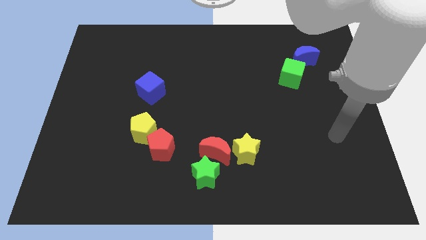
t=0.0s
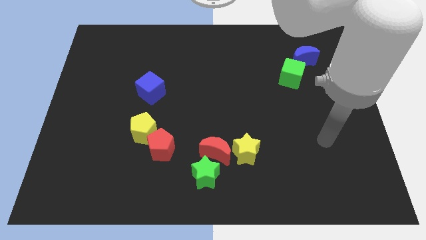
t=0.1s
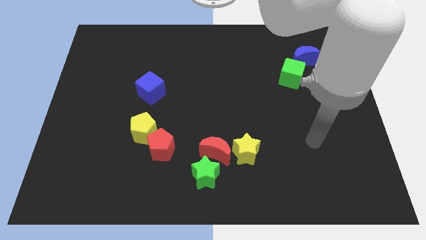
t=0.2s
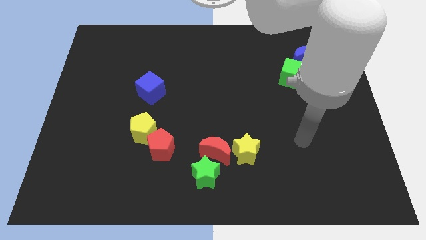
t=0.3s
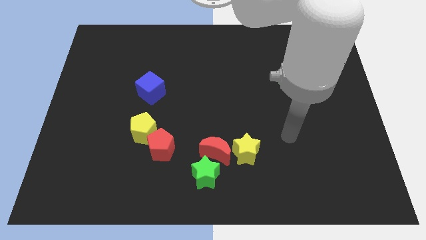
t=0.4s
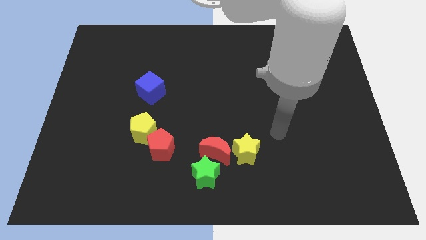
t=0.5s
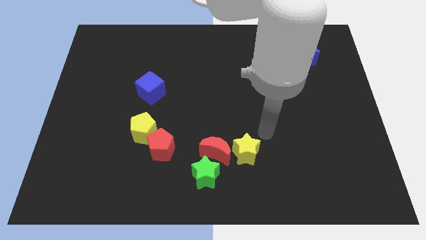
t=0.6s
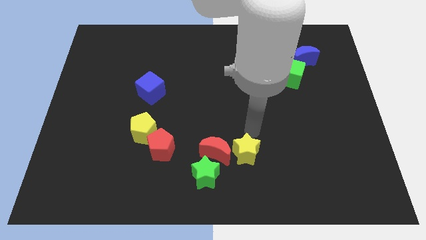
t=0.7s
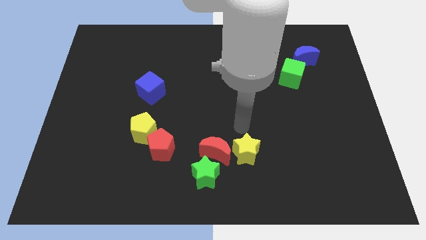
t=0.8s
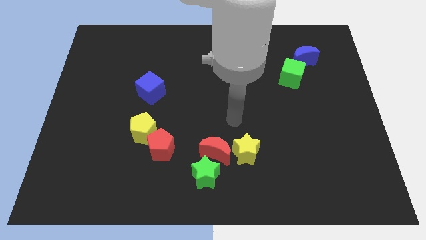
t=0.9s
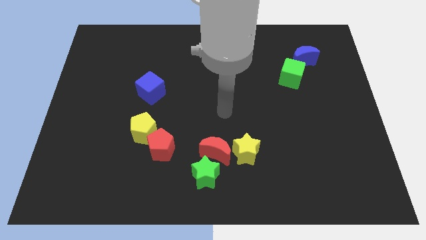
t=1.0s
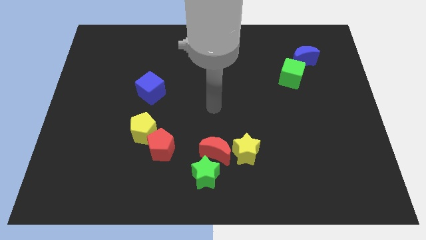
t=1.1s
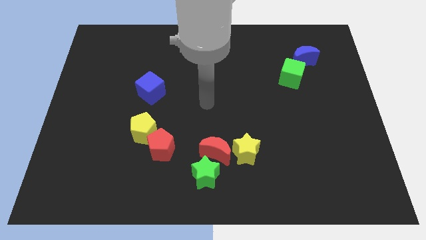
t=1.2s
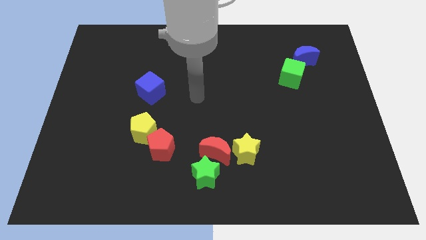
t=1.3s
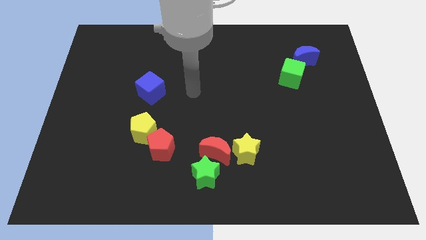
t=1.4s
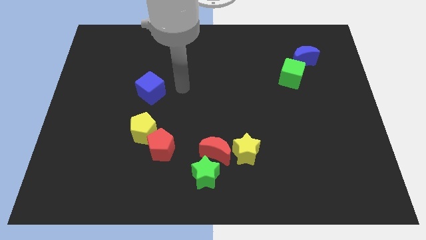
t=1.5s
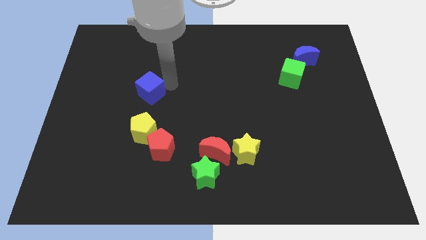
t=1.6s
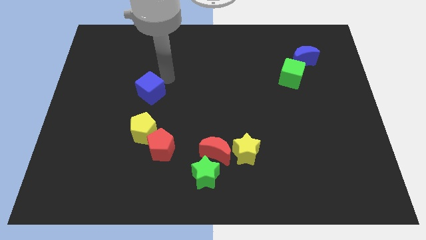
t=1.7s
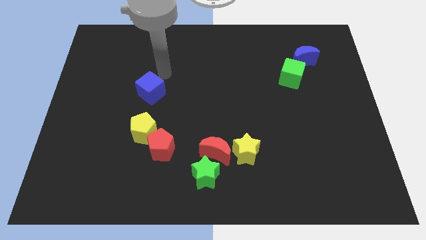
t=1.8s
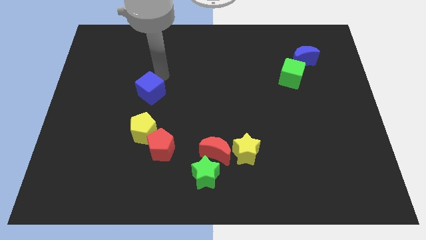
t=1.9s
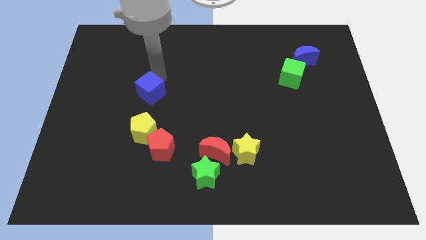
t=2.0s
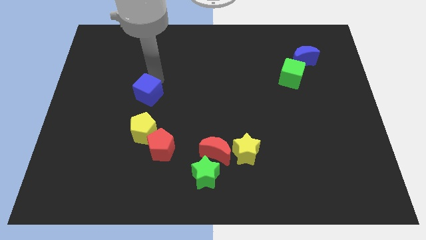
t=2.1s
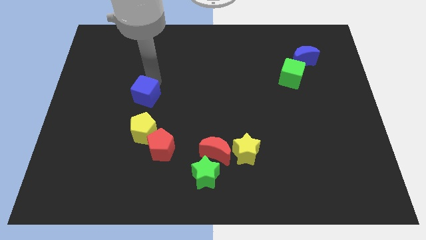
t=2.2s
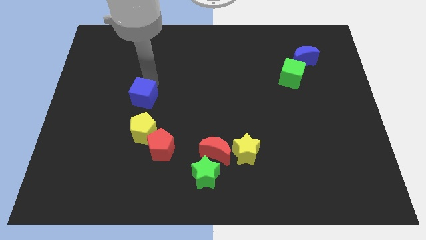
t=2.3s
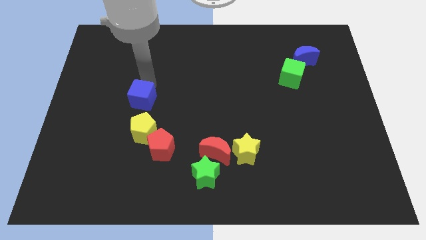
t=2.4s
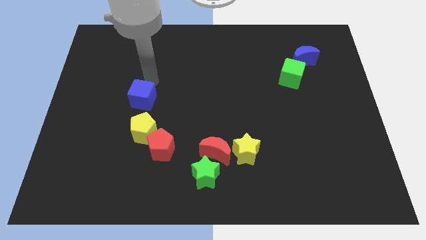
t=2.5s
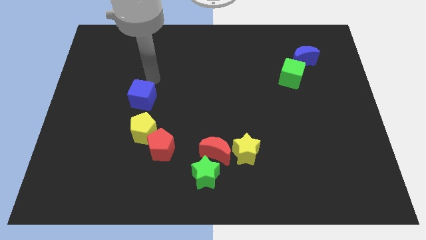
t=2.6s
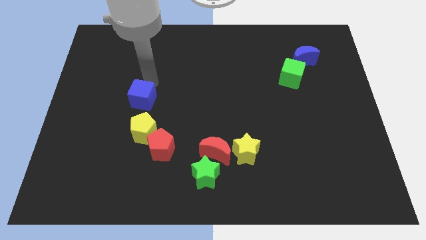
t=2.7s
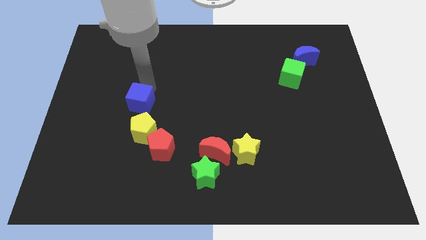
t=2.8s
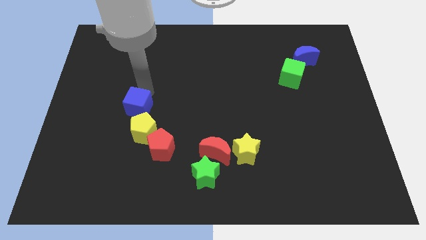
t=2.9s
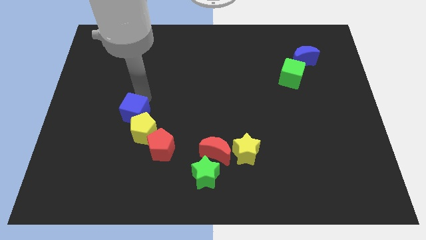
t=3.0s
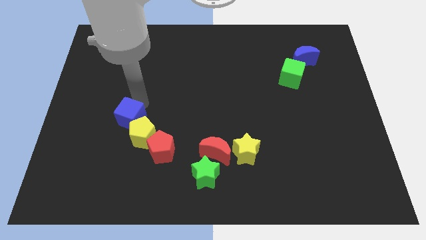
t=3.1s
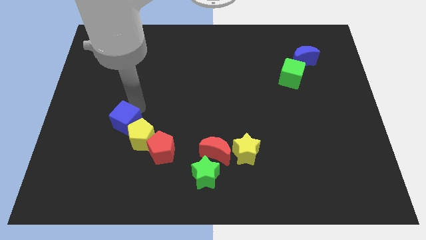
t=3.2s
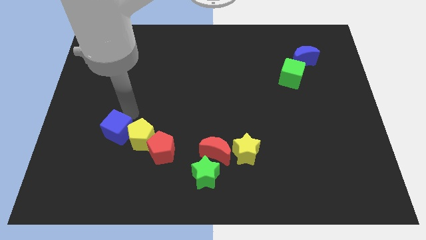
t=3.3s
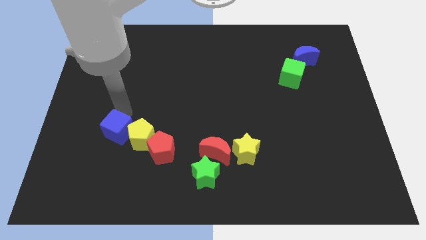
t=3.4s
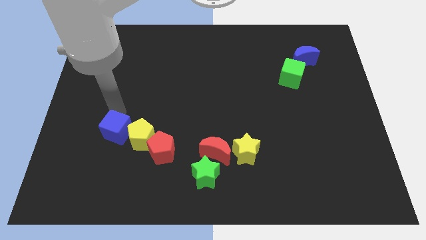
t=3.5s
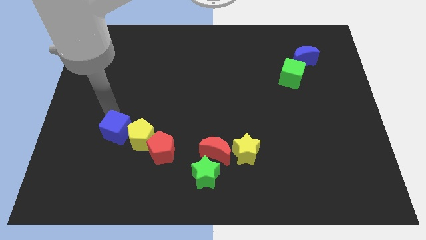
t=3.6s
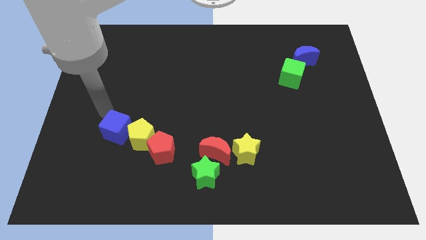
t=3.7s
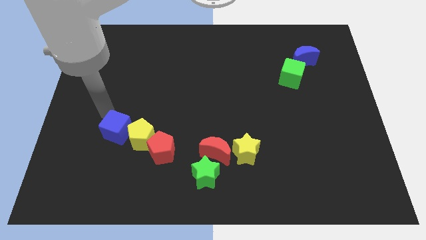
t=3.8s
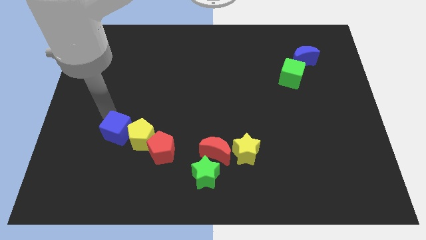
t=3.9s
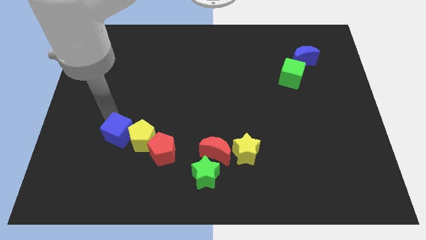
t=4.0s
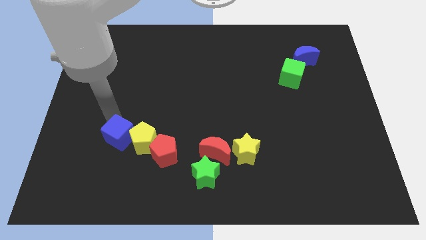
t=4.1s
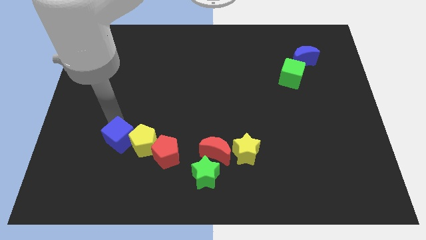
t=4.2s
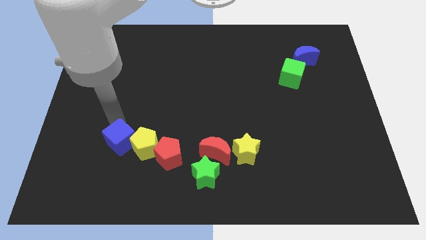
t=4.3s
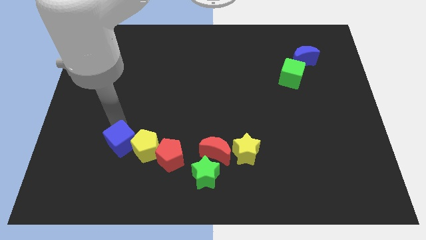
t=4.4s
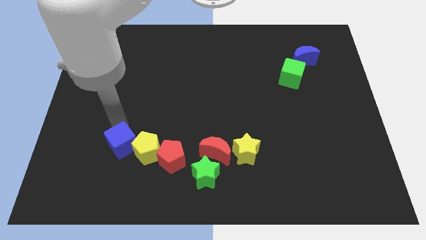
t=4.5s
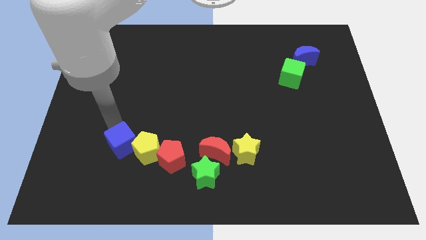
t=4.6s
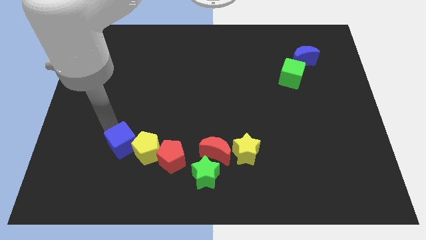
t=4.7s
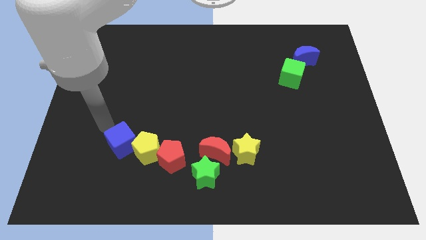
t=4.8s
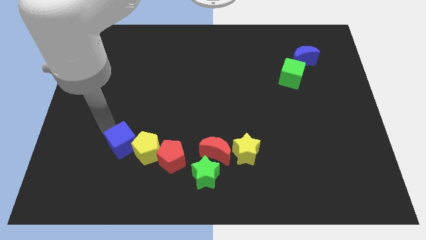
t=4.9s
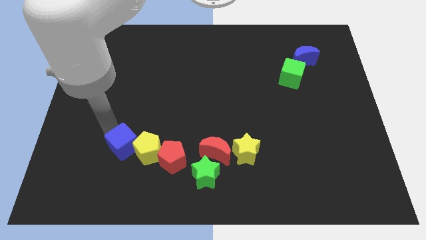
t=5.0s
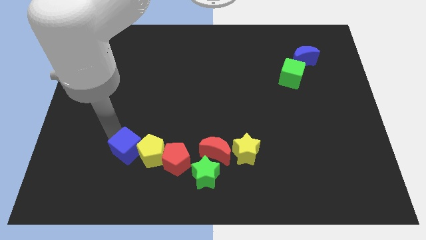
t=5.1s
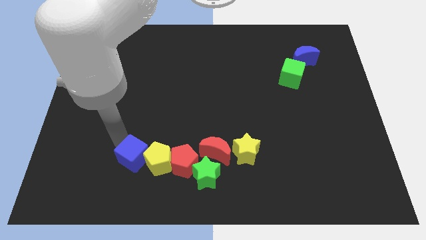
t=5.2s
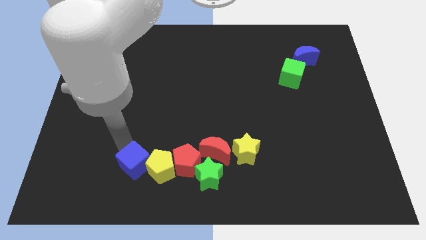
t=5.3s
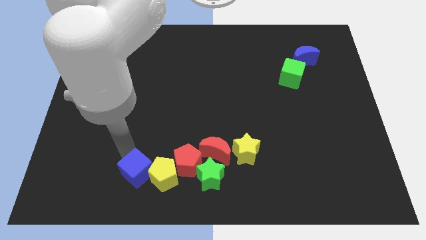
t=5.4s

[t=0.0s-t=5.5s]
push the blue cube to the left of the green star

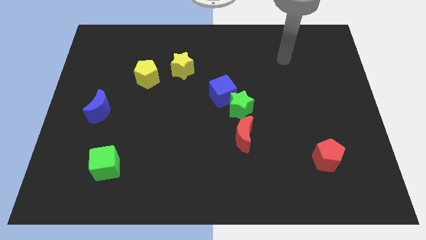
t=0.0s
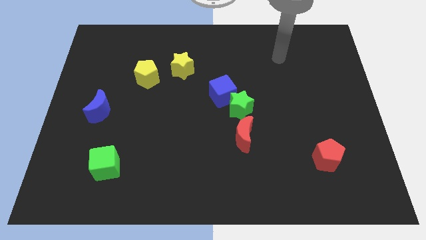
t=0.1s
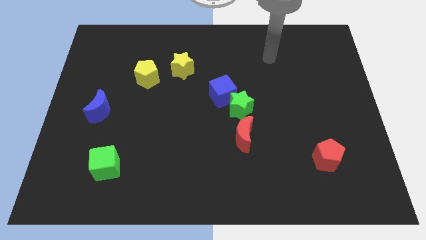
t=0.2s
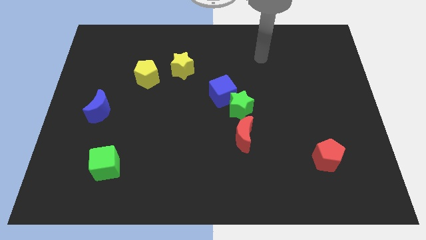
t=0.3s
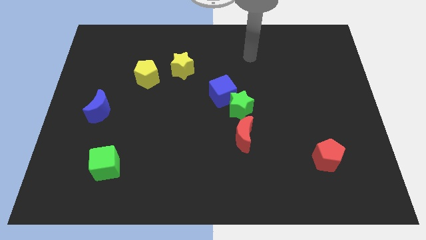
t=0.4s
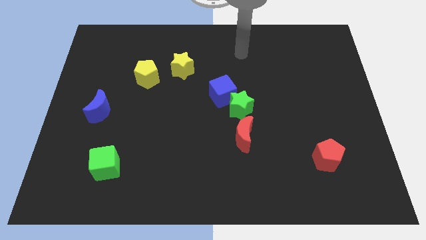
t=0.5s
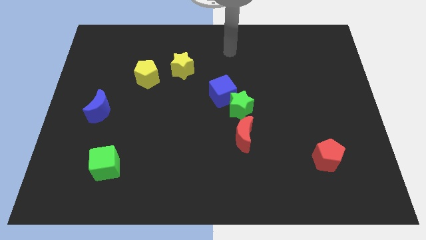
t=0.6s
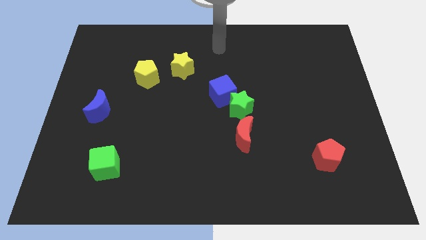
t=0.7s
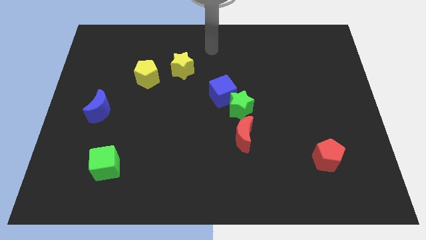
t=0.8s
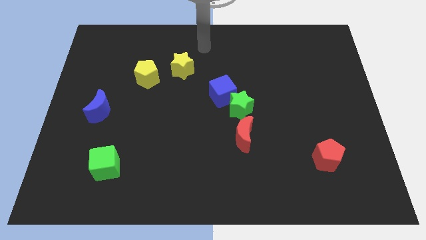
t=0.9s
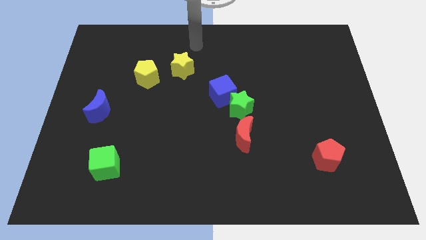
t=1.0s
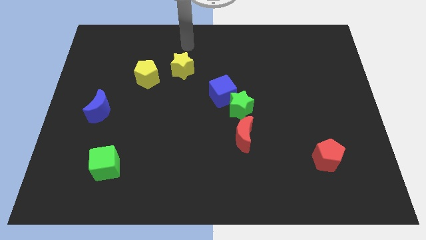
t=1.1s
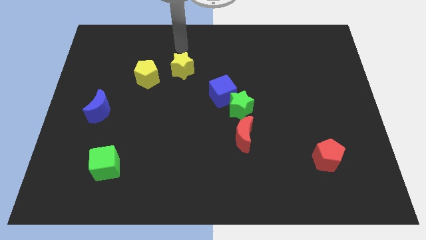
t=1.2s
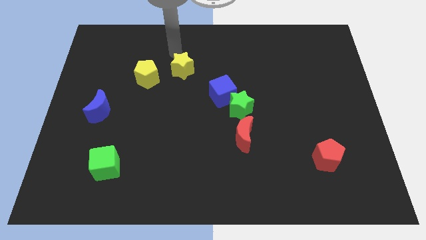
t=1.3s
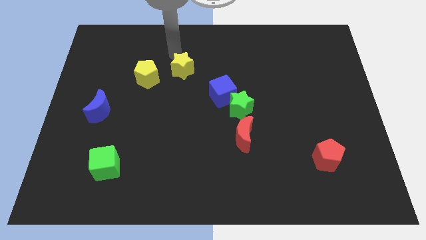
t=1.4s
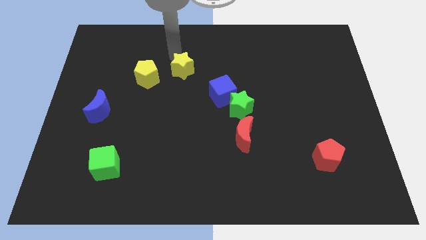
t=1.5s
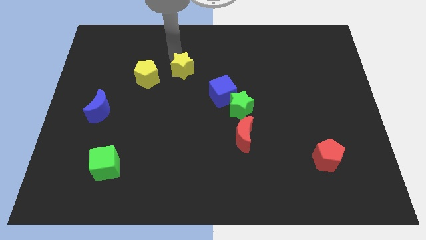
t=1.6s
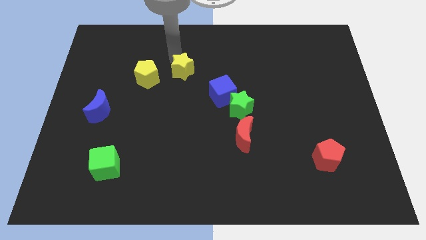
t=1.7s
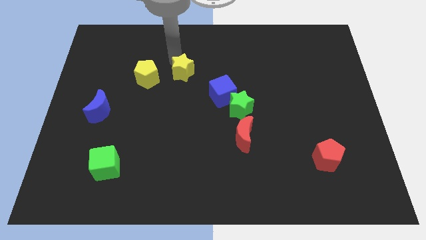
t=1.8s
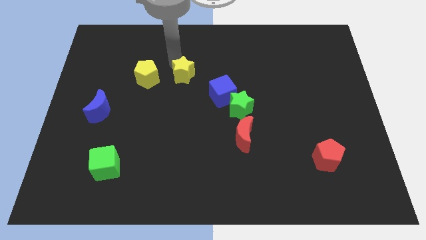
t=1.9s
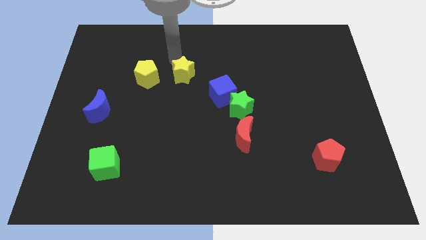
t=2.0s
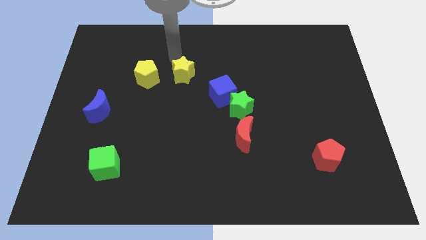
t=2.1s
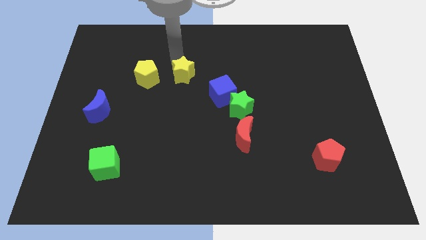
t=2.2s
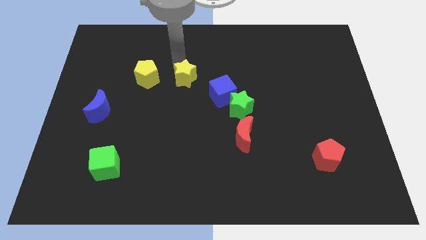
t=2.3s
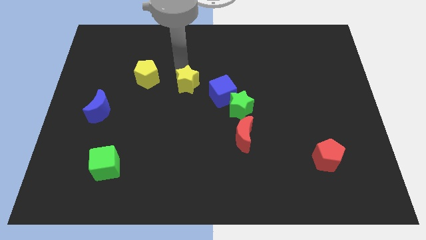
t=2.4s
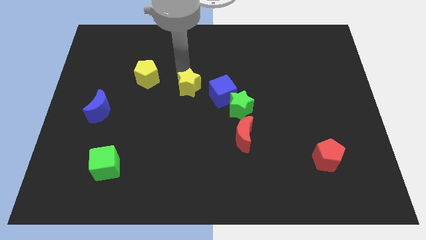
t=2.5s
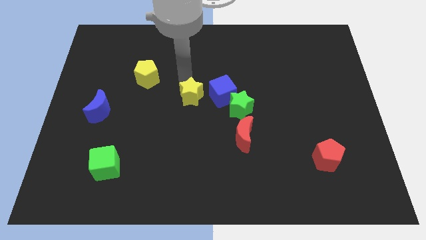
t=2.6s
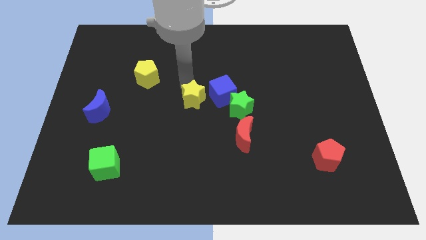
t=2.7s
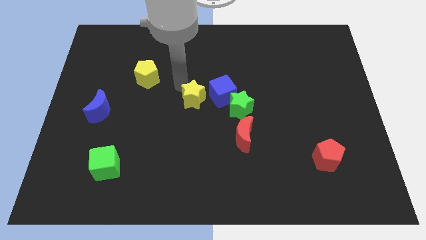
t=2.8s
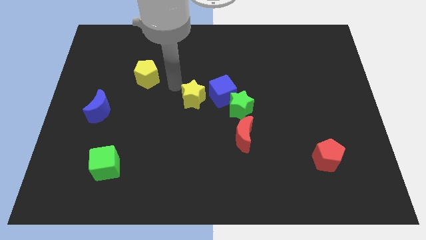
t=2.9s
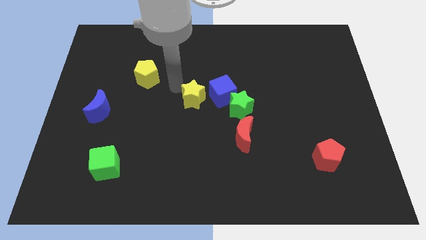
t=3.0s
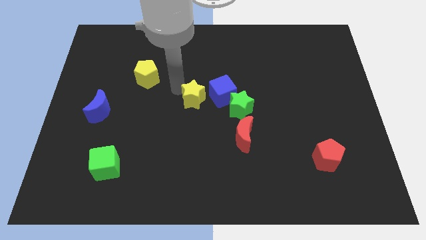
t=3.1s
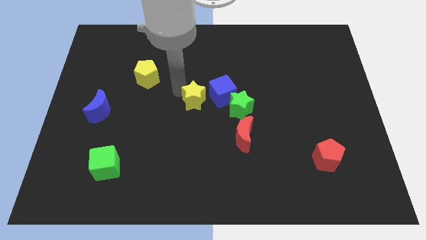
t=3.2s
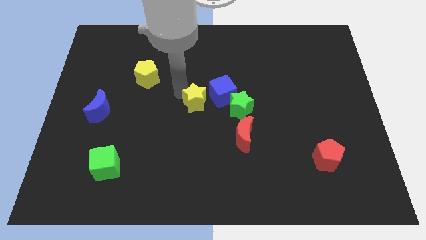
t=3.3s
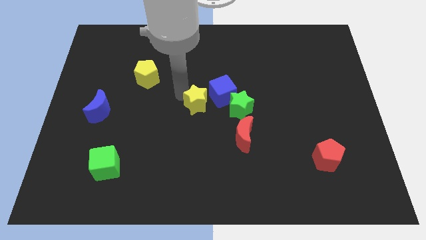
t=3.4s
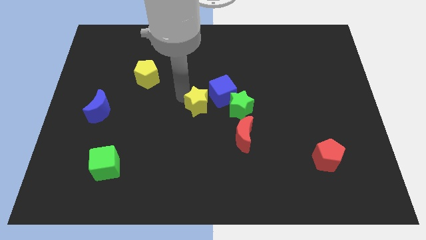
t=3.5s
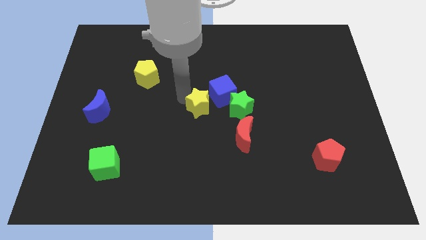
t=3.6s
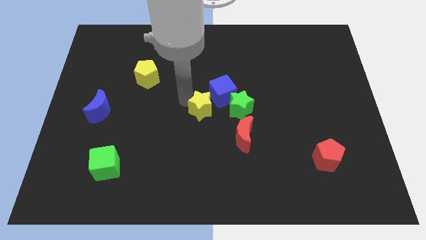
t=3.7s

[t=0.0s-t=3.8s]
push the yellow star to the bottom of the blue cube
